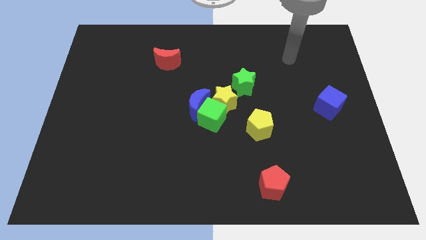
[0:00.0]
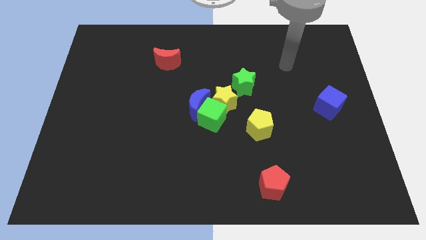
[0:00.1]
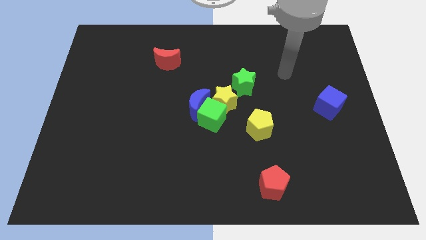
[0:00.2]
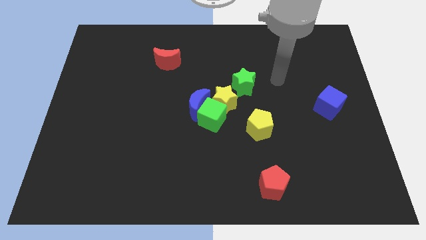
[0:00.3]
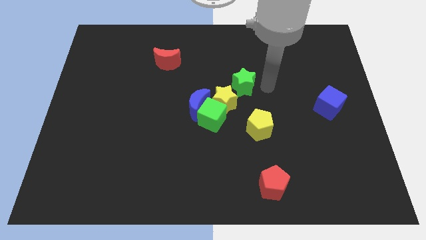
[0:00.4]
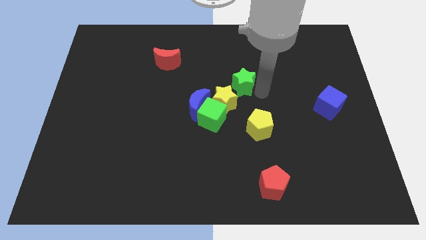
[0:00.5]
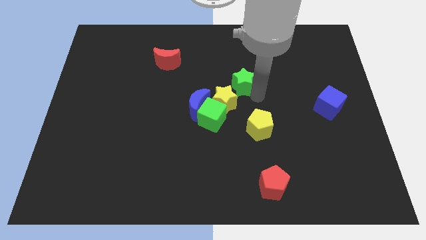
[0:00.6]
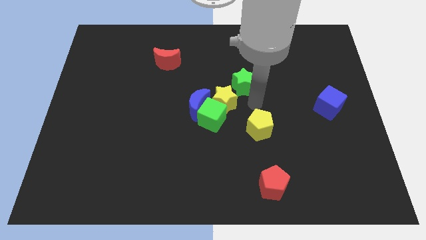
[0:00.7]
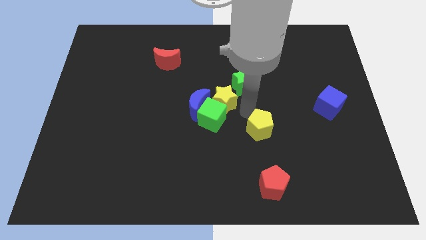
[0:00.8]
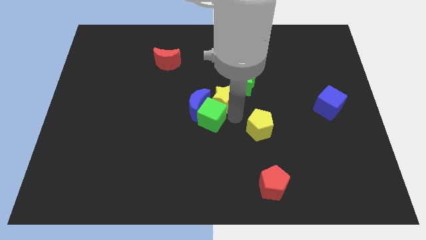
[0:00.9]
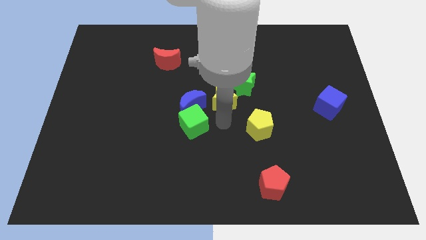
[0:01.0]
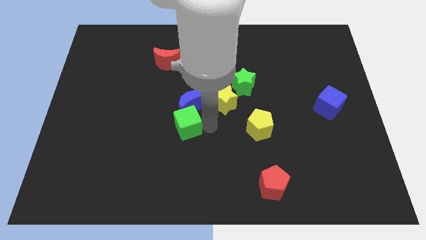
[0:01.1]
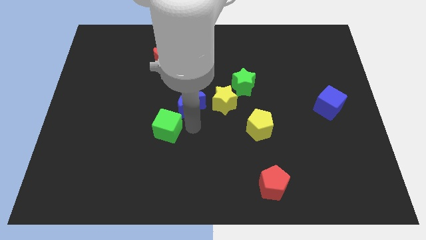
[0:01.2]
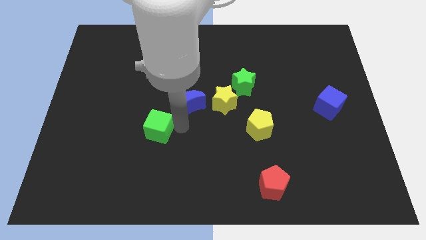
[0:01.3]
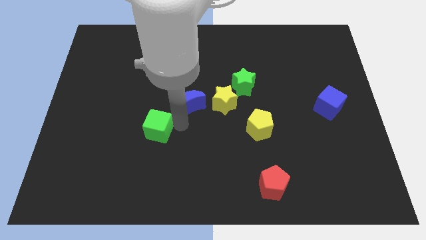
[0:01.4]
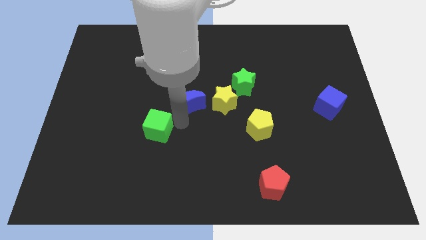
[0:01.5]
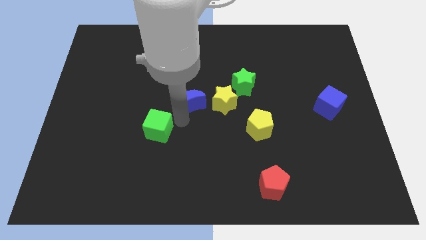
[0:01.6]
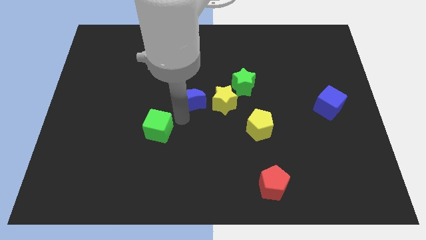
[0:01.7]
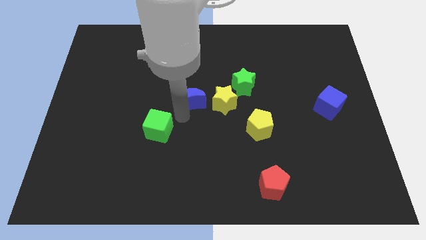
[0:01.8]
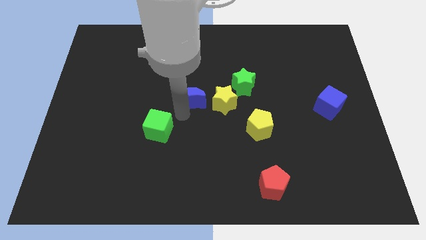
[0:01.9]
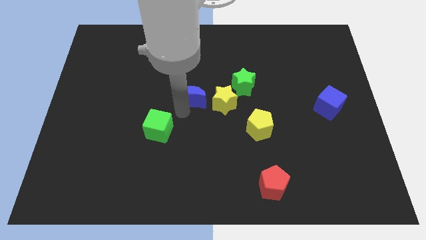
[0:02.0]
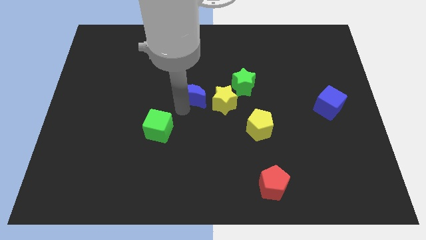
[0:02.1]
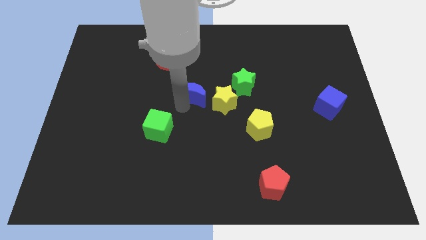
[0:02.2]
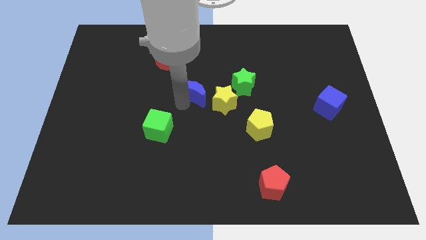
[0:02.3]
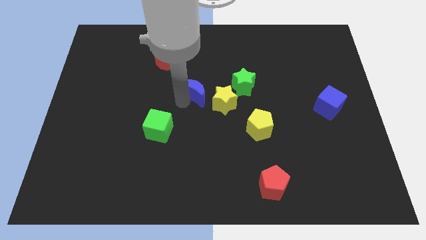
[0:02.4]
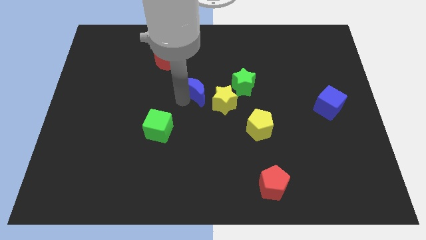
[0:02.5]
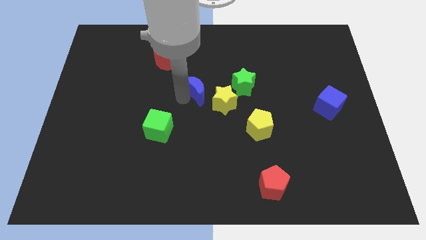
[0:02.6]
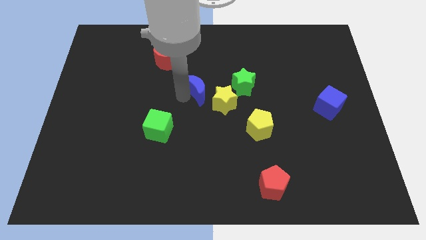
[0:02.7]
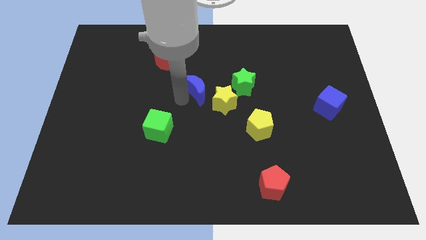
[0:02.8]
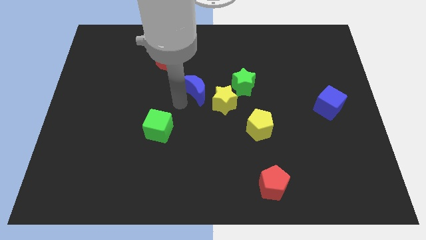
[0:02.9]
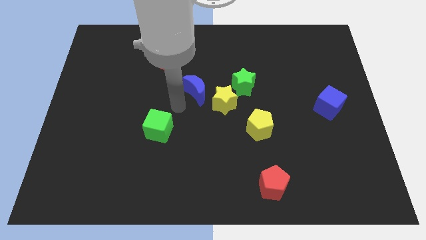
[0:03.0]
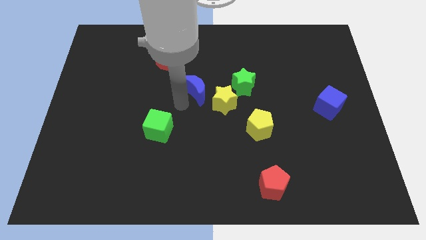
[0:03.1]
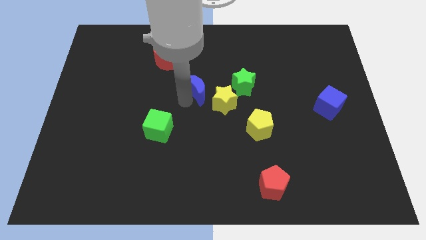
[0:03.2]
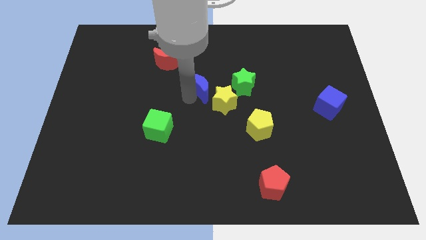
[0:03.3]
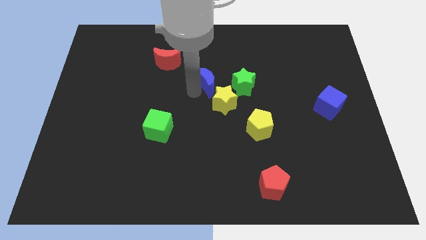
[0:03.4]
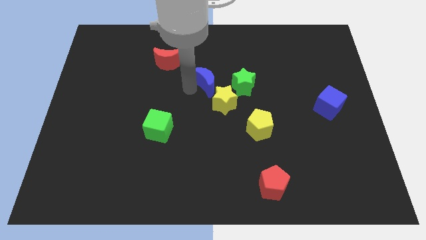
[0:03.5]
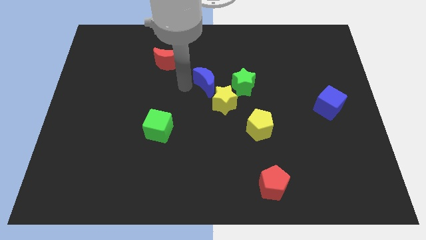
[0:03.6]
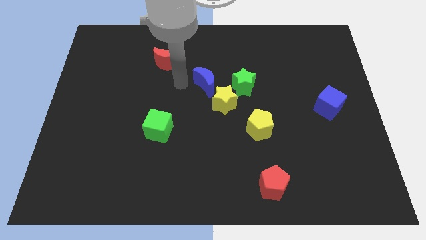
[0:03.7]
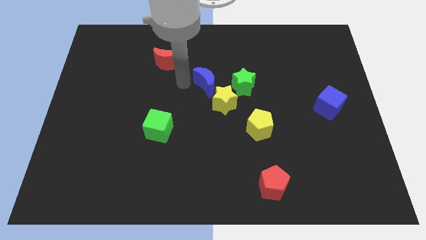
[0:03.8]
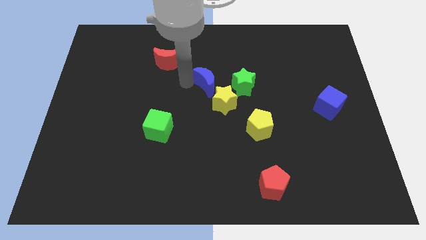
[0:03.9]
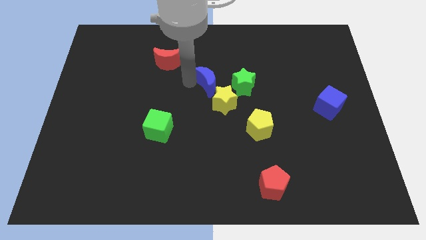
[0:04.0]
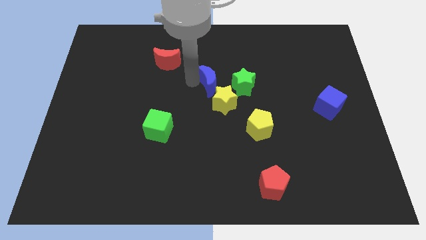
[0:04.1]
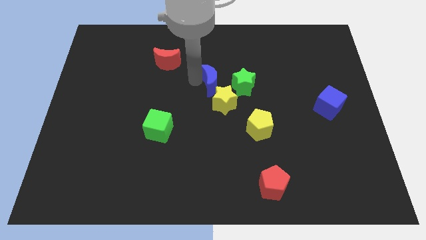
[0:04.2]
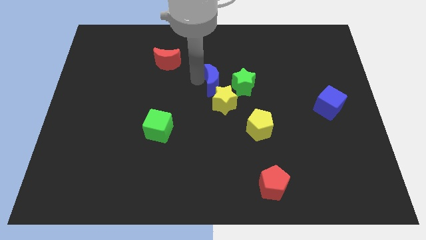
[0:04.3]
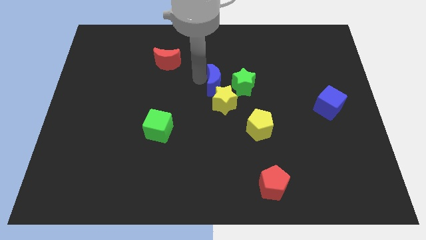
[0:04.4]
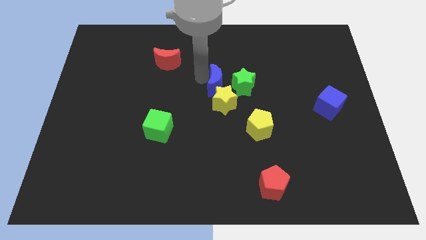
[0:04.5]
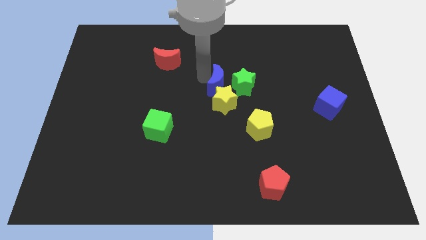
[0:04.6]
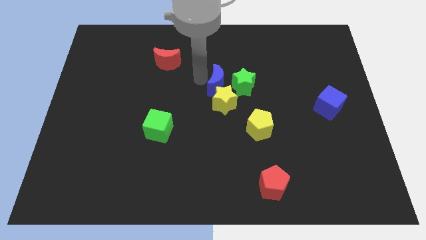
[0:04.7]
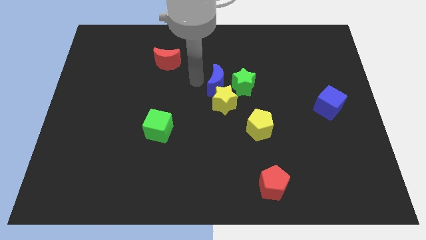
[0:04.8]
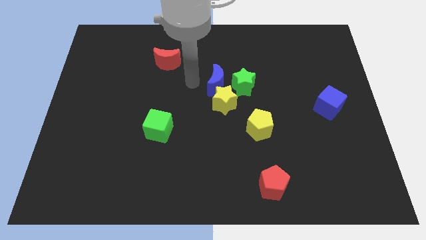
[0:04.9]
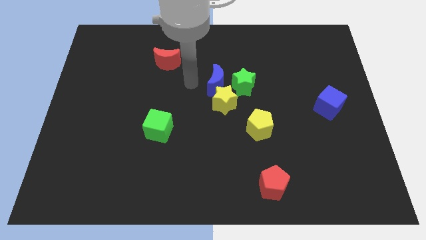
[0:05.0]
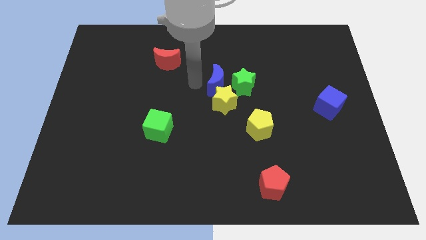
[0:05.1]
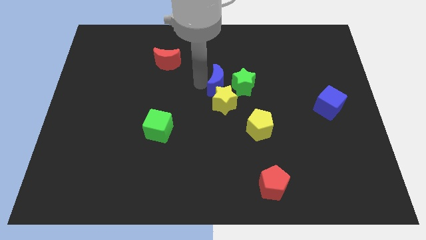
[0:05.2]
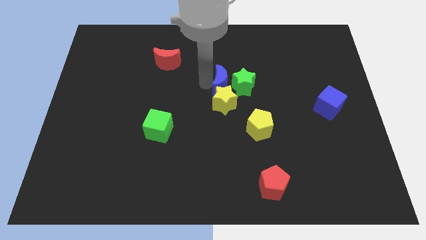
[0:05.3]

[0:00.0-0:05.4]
push the blue moon to the green star

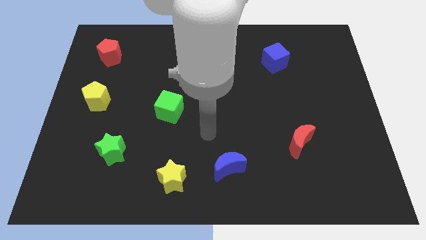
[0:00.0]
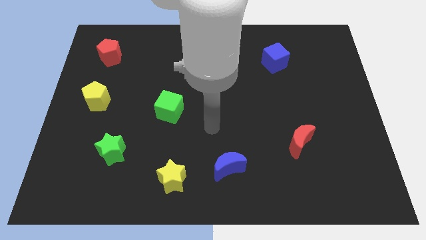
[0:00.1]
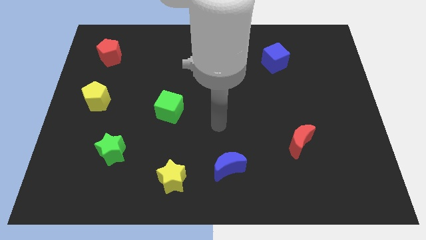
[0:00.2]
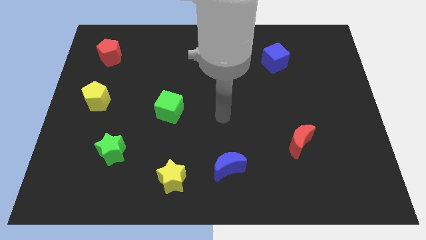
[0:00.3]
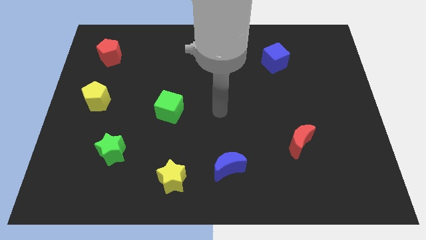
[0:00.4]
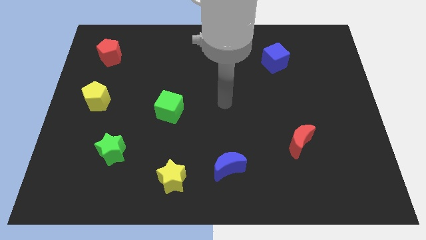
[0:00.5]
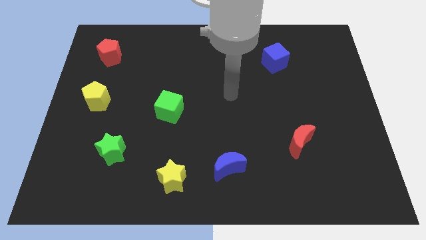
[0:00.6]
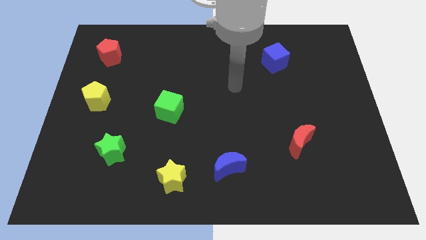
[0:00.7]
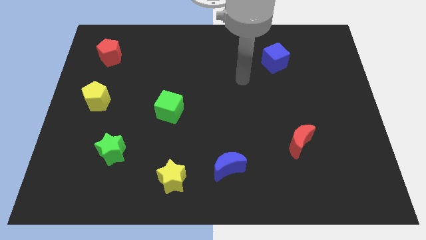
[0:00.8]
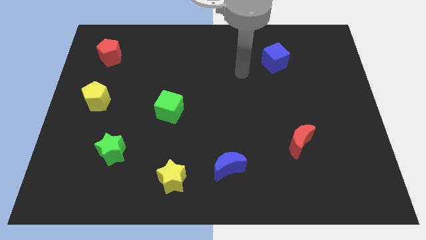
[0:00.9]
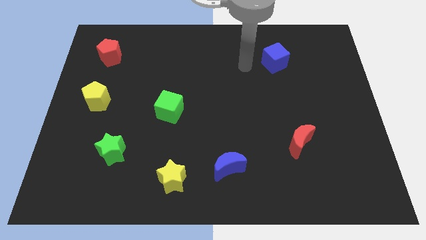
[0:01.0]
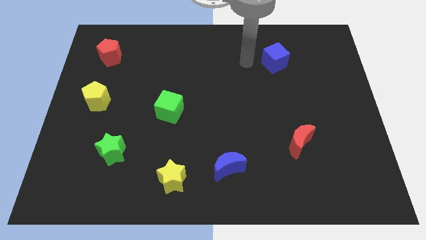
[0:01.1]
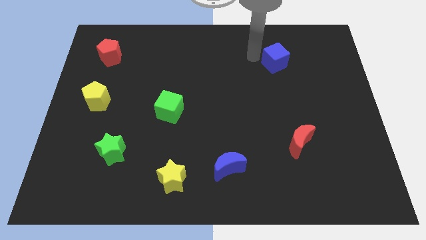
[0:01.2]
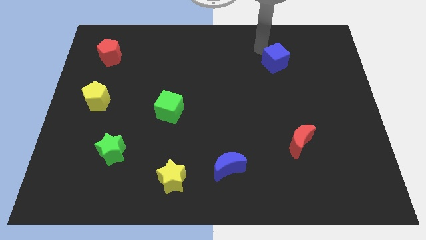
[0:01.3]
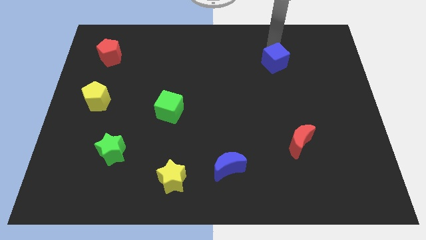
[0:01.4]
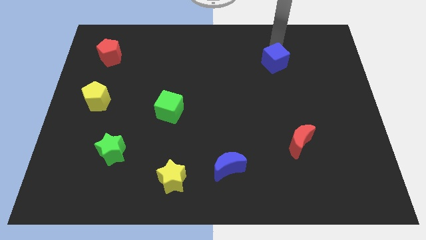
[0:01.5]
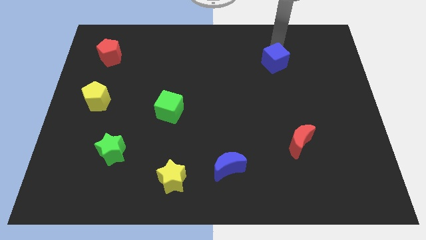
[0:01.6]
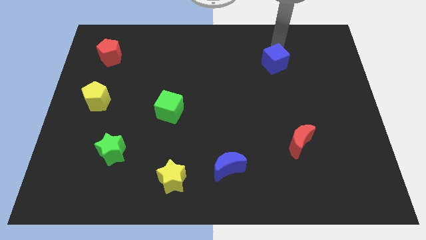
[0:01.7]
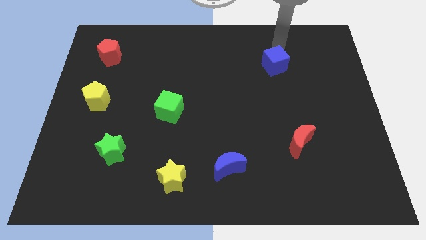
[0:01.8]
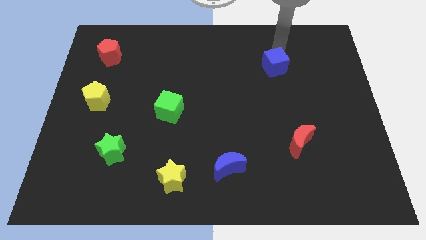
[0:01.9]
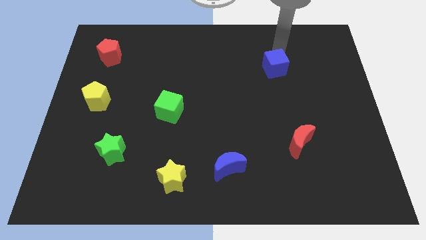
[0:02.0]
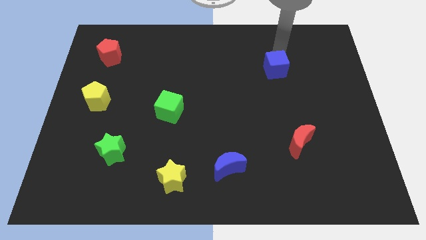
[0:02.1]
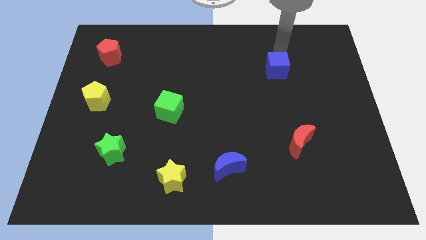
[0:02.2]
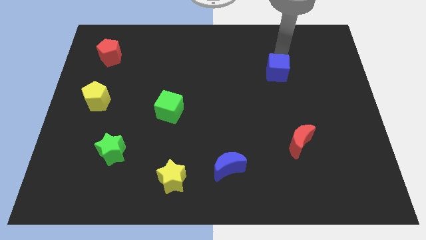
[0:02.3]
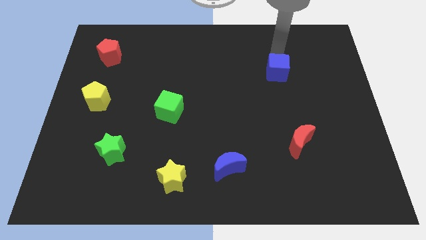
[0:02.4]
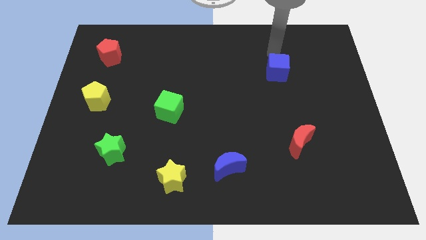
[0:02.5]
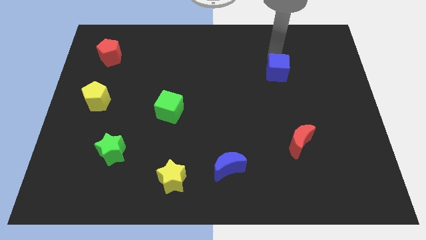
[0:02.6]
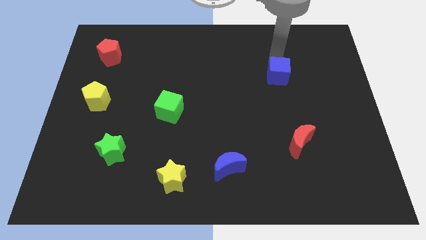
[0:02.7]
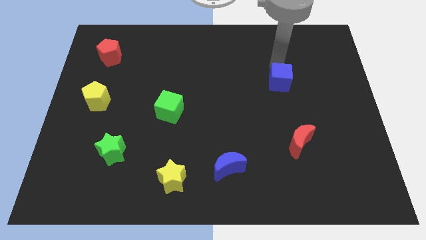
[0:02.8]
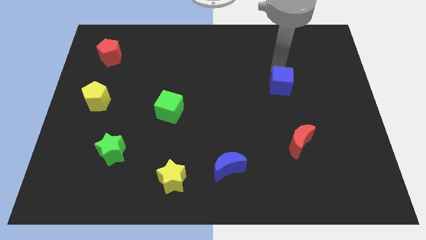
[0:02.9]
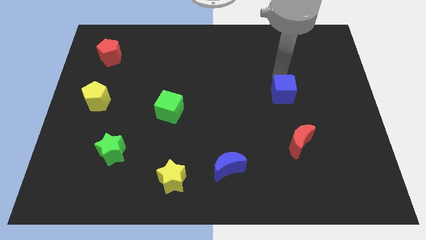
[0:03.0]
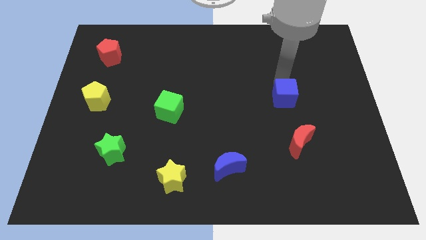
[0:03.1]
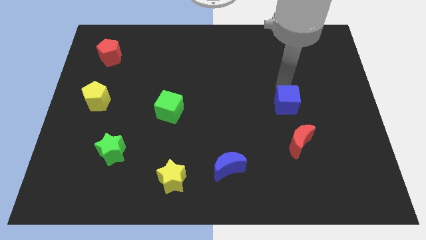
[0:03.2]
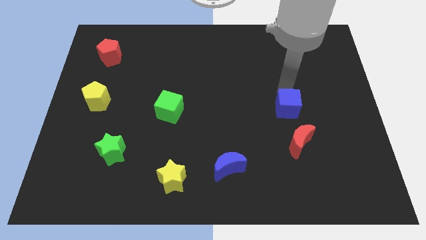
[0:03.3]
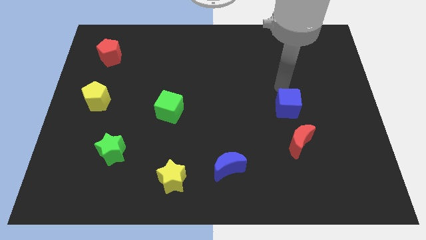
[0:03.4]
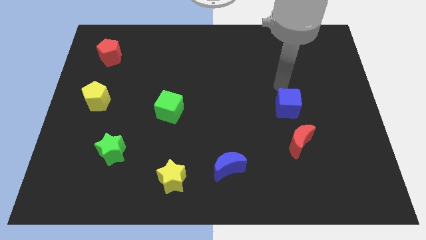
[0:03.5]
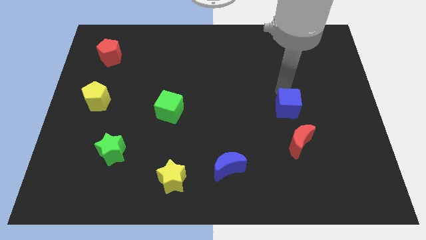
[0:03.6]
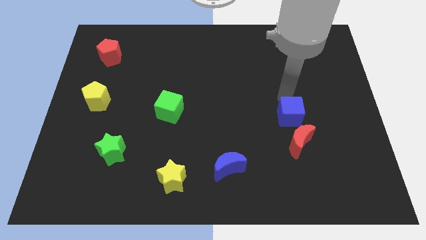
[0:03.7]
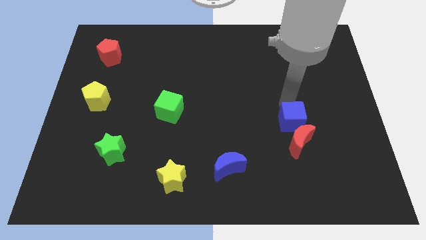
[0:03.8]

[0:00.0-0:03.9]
push the blue cube close to the red moon
